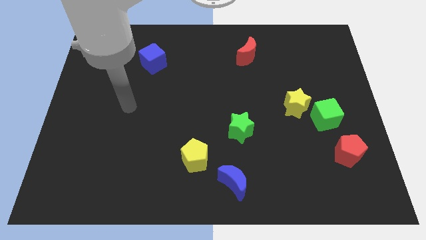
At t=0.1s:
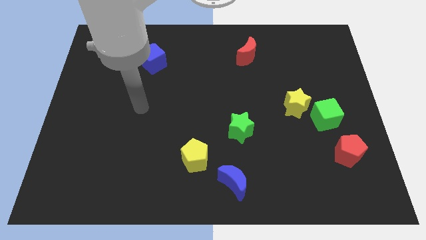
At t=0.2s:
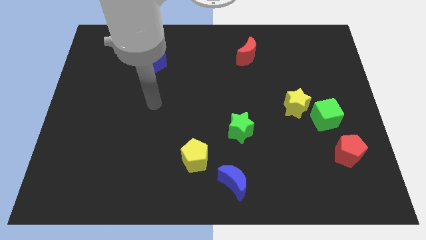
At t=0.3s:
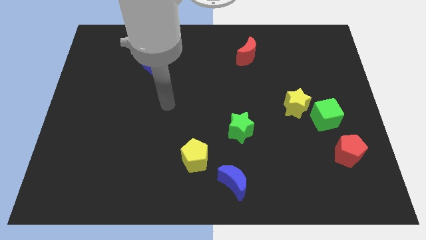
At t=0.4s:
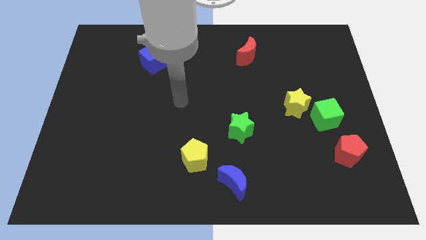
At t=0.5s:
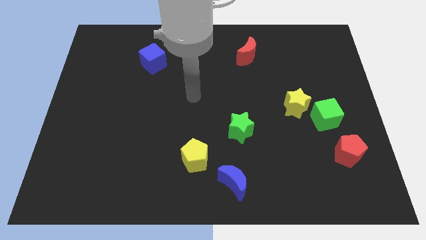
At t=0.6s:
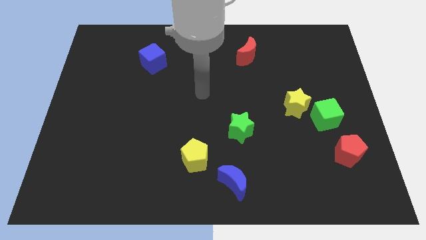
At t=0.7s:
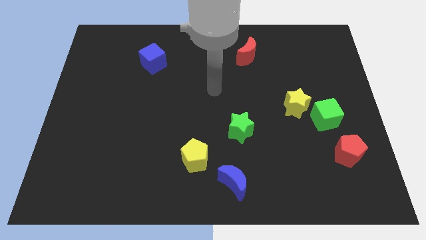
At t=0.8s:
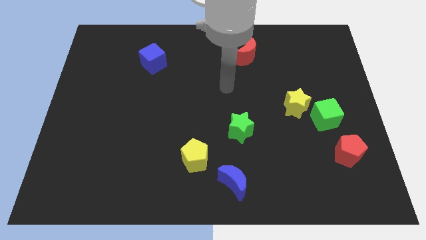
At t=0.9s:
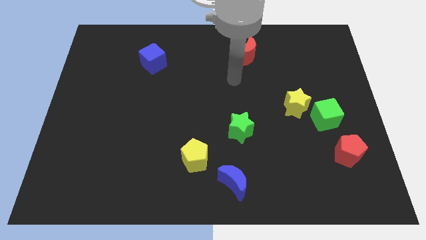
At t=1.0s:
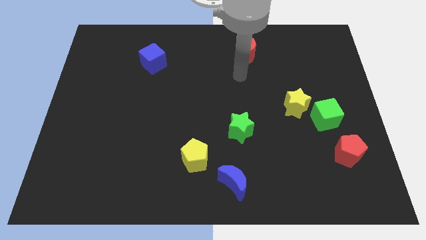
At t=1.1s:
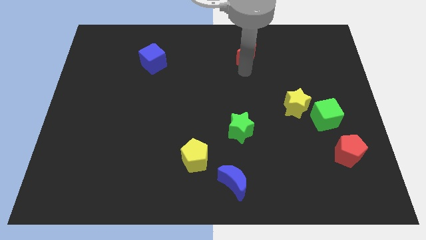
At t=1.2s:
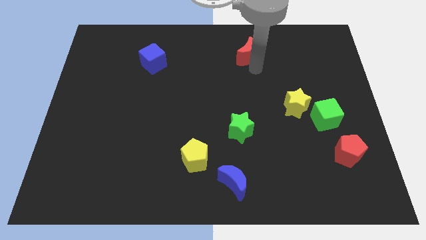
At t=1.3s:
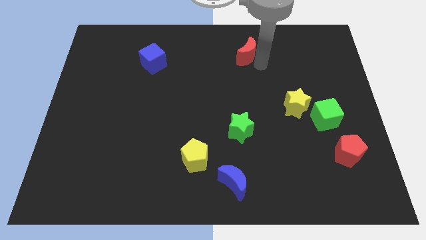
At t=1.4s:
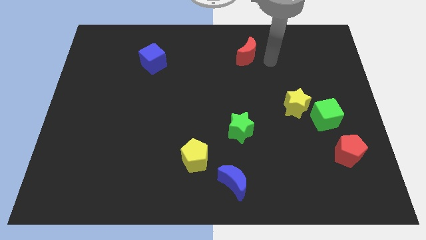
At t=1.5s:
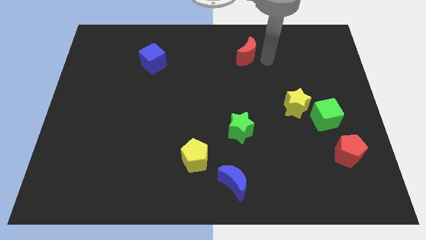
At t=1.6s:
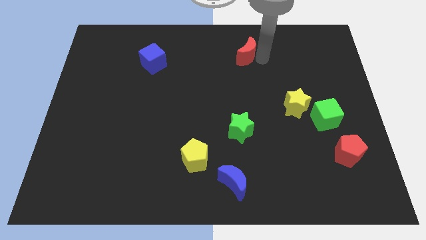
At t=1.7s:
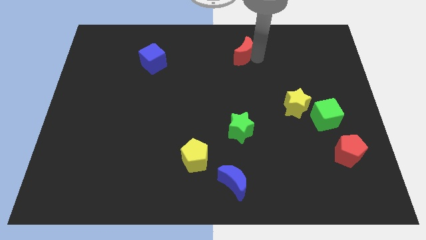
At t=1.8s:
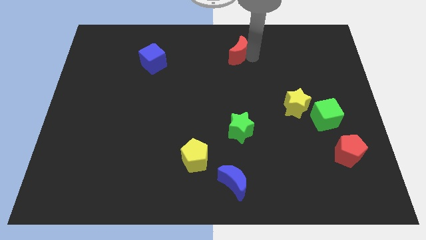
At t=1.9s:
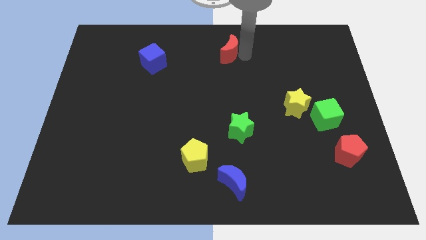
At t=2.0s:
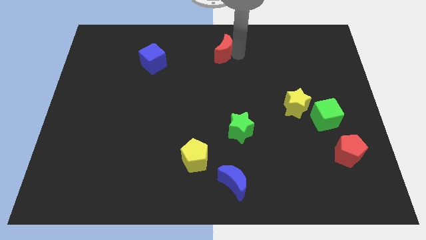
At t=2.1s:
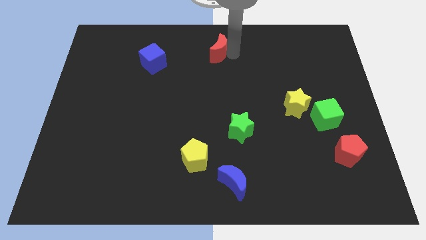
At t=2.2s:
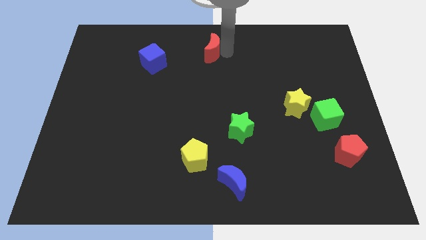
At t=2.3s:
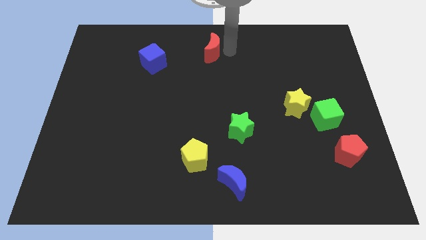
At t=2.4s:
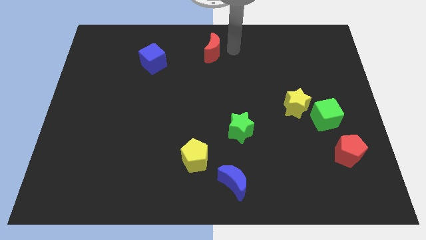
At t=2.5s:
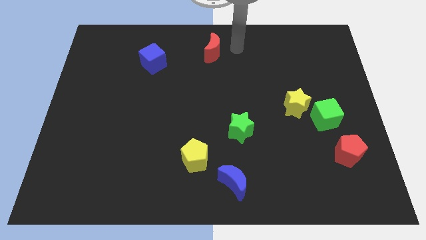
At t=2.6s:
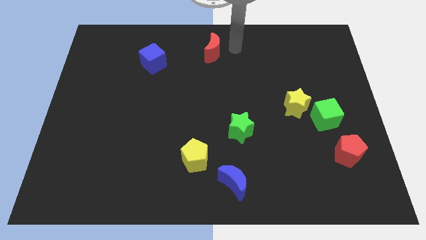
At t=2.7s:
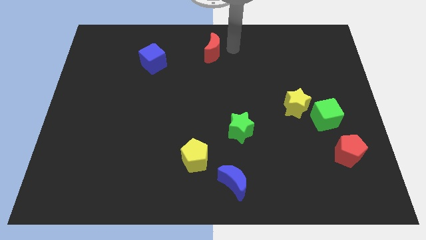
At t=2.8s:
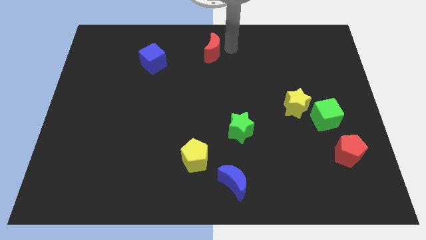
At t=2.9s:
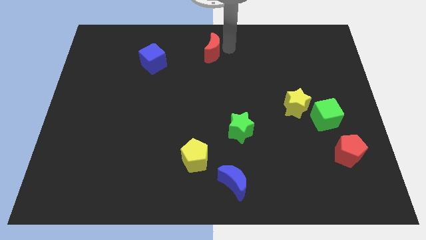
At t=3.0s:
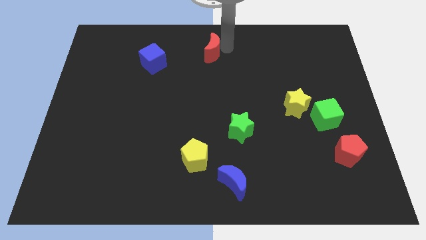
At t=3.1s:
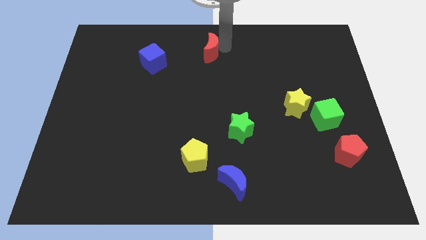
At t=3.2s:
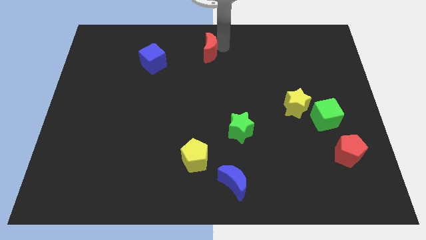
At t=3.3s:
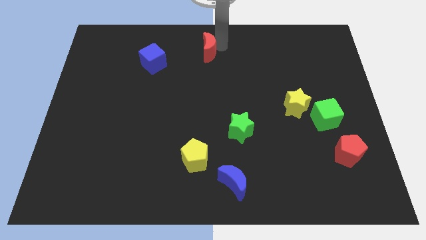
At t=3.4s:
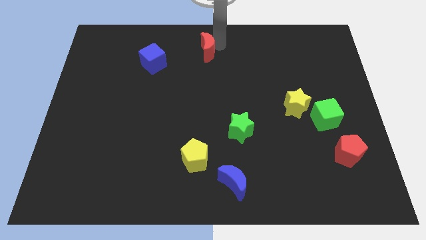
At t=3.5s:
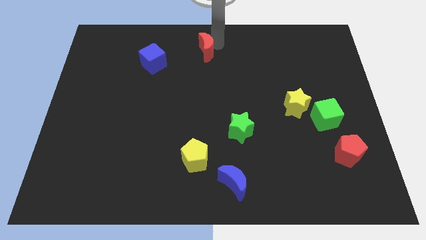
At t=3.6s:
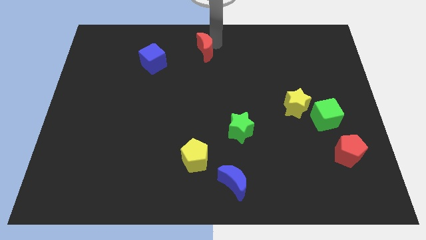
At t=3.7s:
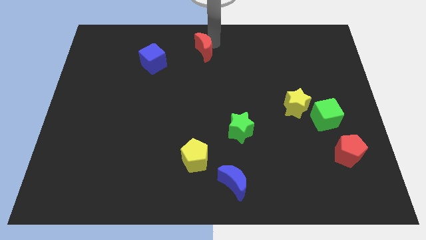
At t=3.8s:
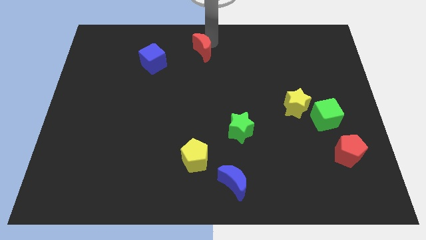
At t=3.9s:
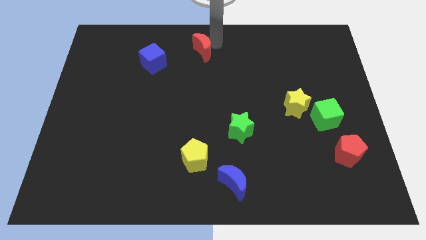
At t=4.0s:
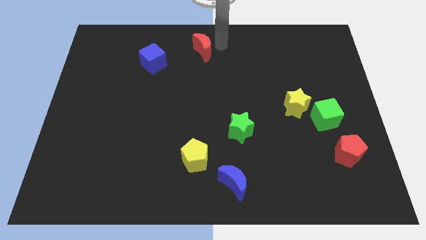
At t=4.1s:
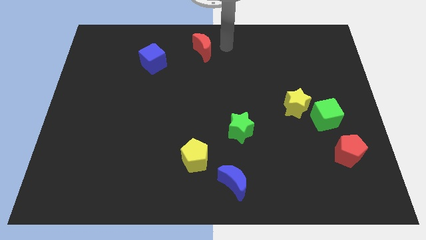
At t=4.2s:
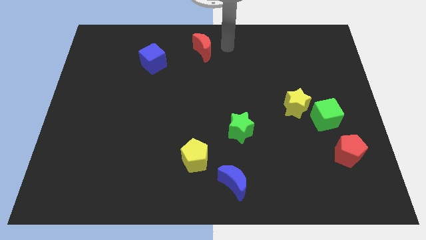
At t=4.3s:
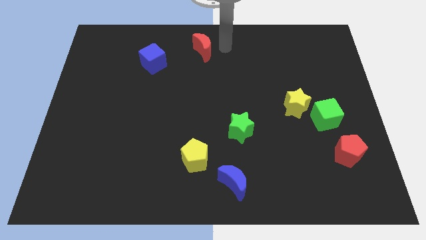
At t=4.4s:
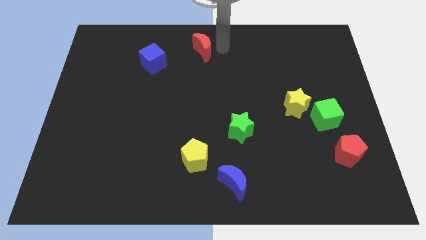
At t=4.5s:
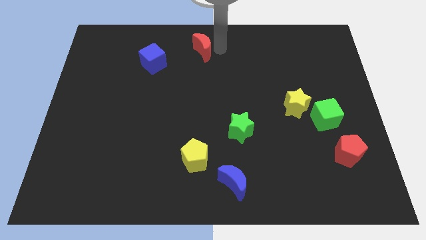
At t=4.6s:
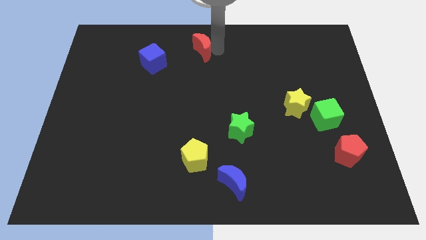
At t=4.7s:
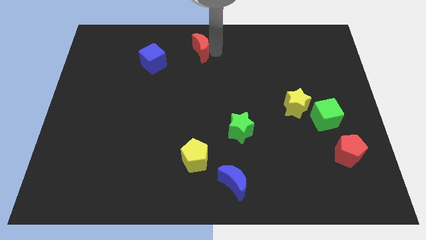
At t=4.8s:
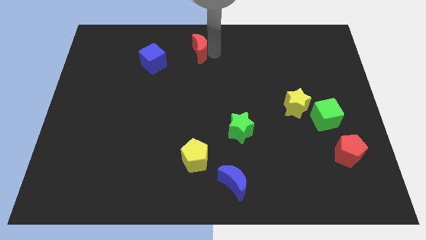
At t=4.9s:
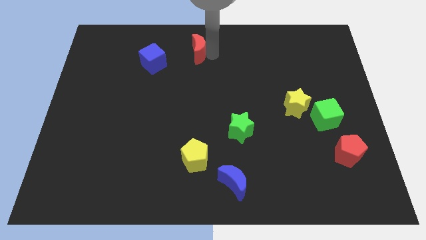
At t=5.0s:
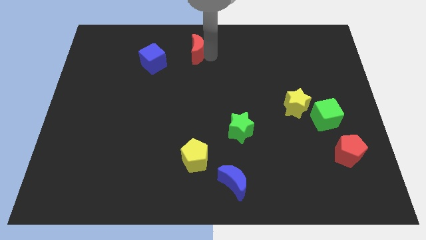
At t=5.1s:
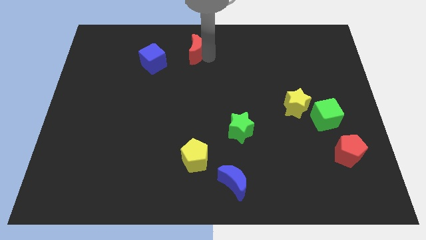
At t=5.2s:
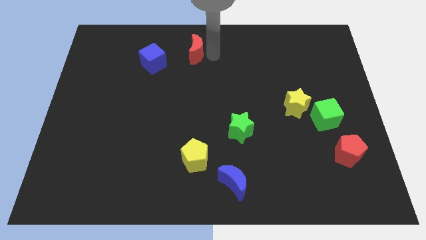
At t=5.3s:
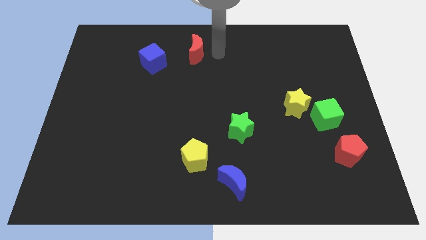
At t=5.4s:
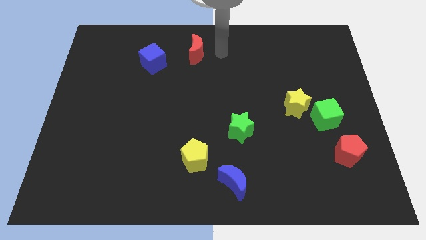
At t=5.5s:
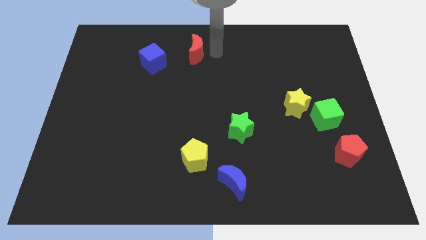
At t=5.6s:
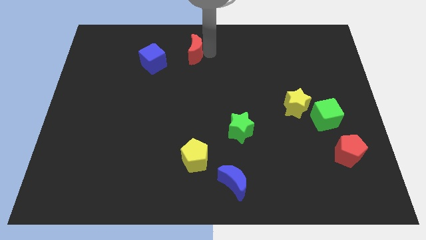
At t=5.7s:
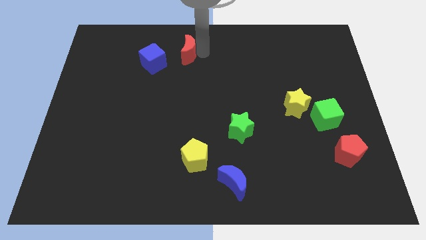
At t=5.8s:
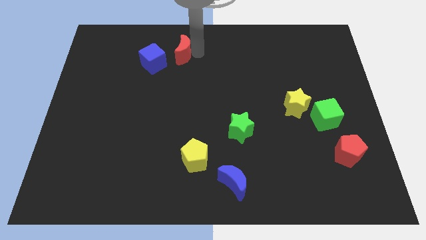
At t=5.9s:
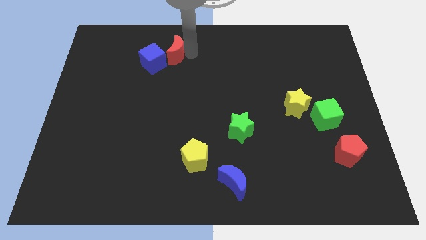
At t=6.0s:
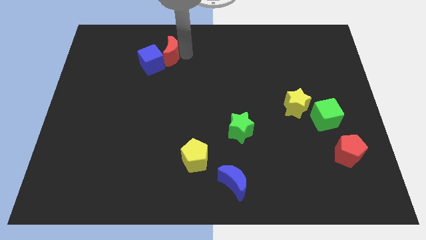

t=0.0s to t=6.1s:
slide the red moon to the left

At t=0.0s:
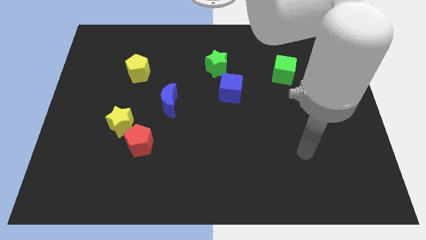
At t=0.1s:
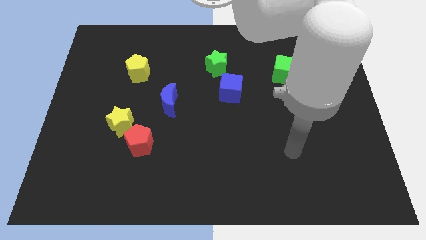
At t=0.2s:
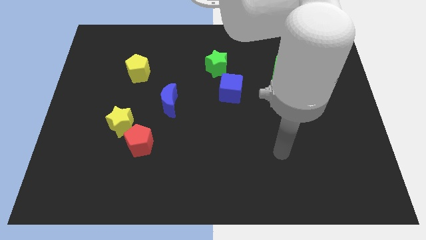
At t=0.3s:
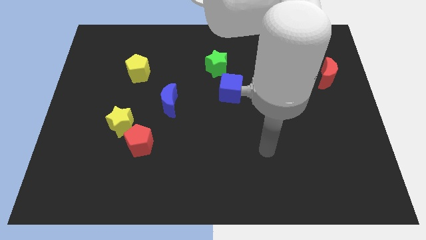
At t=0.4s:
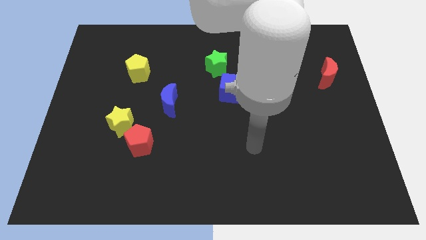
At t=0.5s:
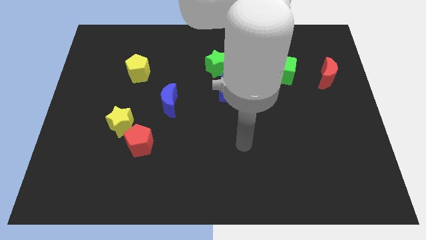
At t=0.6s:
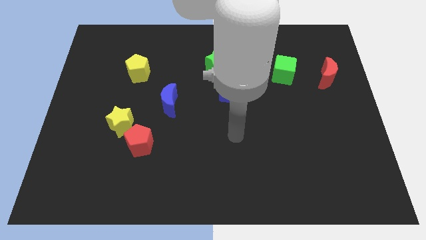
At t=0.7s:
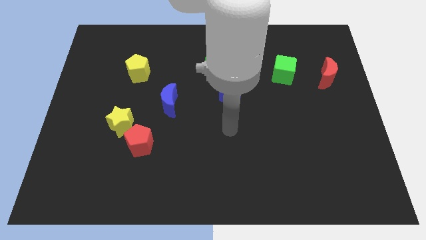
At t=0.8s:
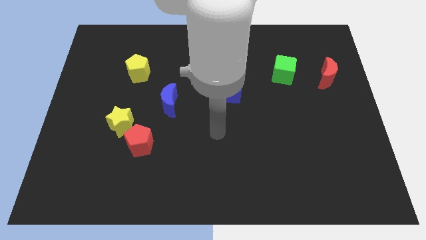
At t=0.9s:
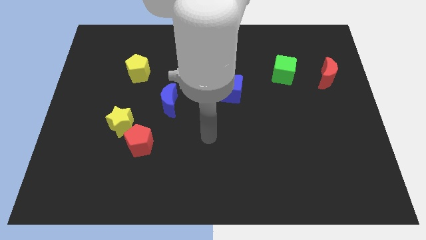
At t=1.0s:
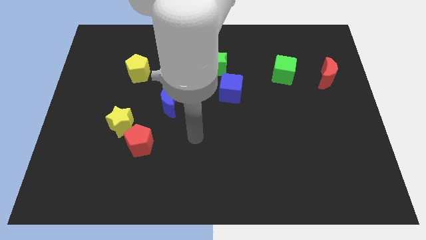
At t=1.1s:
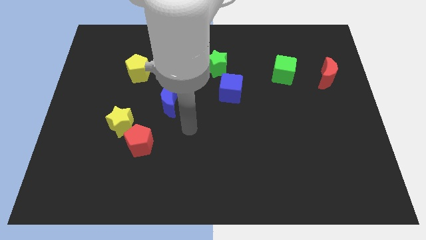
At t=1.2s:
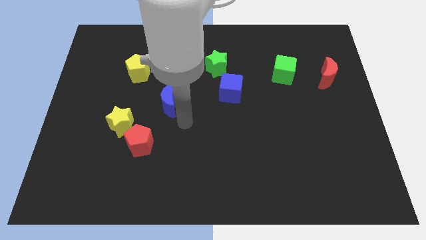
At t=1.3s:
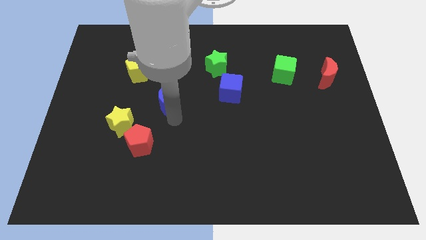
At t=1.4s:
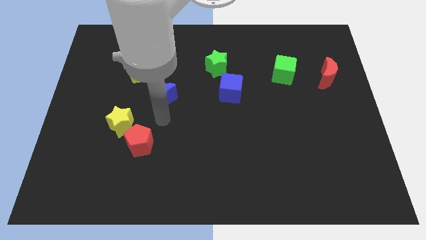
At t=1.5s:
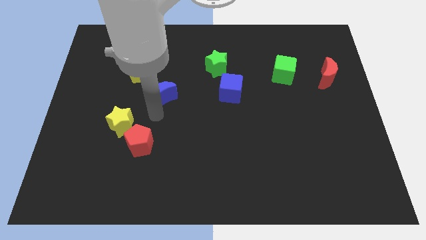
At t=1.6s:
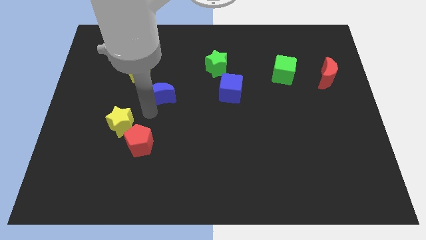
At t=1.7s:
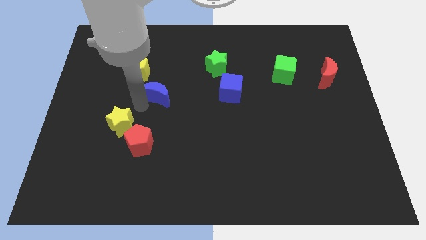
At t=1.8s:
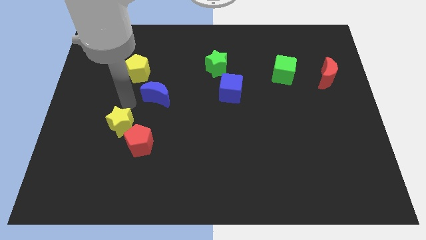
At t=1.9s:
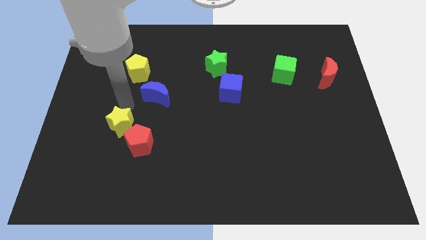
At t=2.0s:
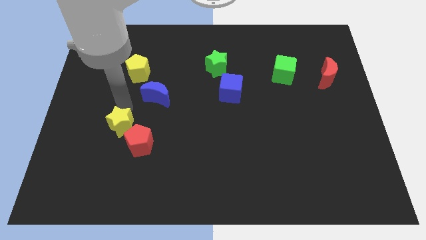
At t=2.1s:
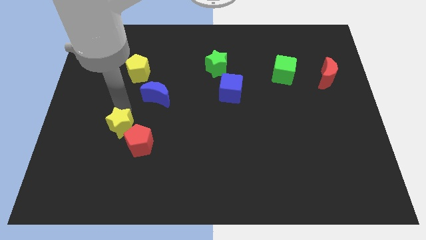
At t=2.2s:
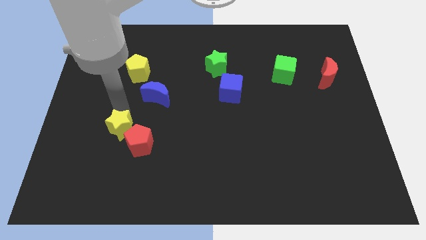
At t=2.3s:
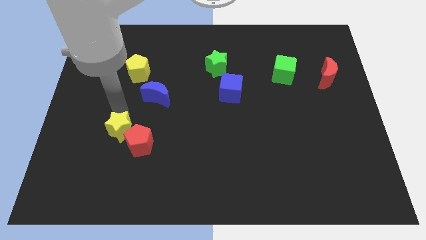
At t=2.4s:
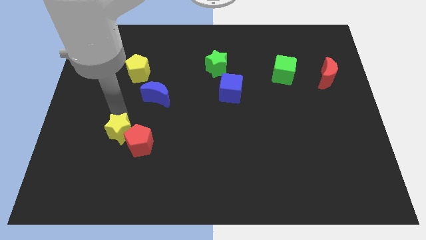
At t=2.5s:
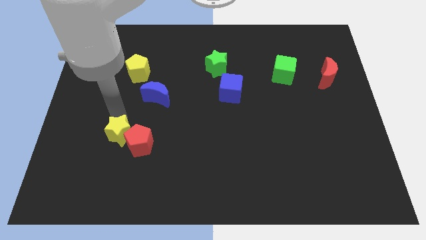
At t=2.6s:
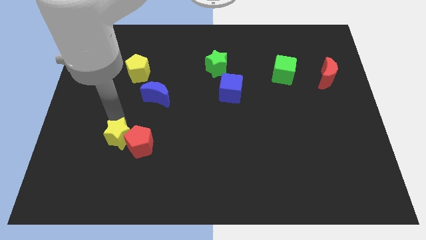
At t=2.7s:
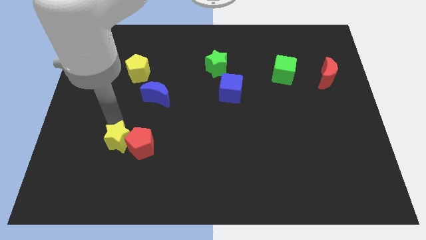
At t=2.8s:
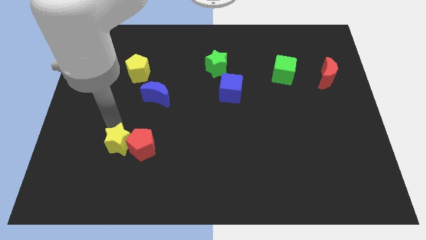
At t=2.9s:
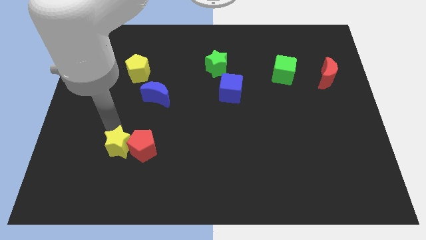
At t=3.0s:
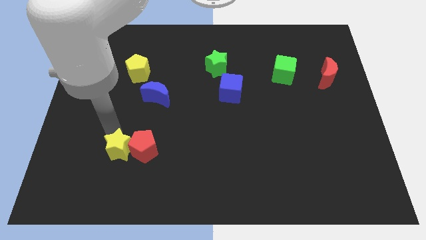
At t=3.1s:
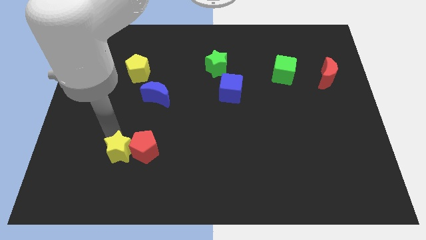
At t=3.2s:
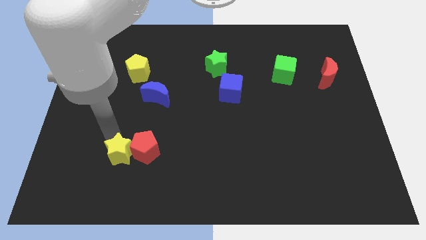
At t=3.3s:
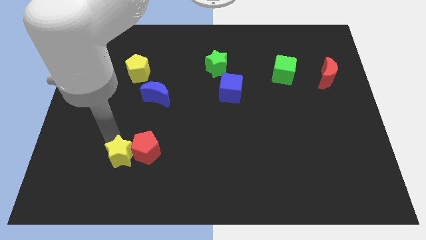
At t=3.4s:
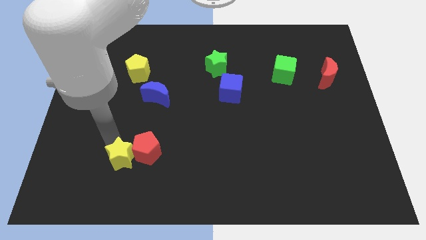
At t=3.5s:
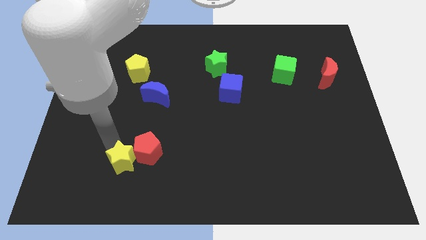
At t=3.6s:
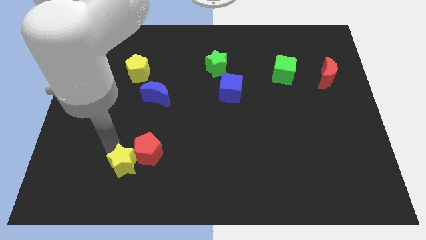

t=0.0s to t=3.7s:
move the yellow star a little down and right
